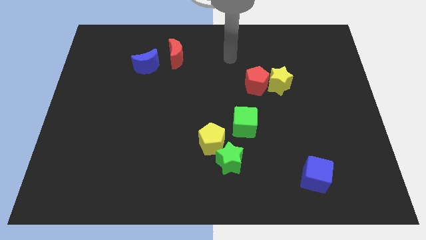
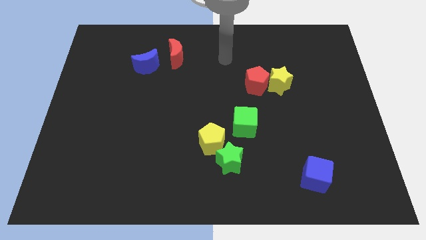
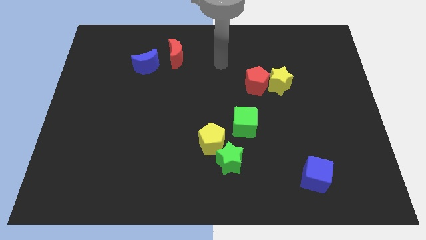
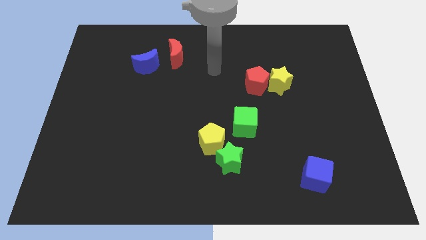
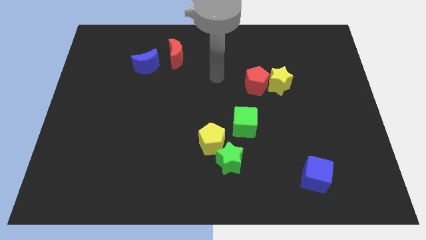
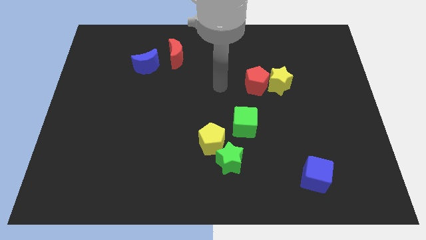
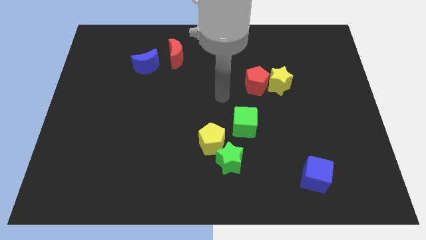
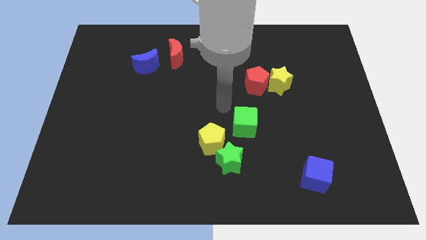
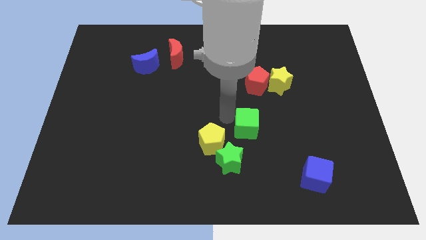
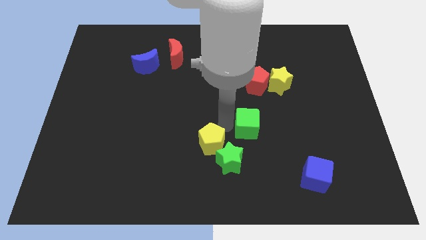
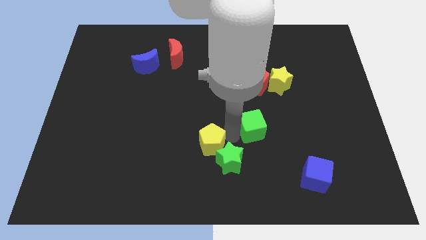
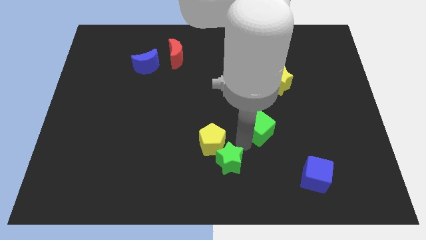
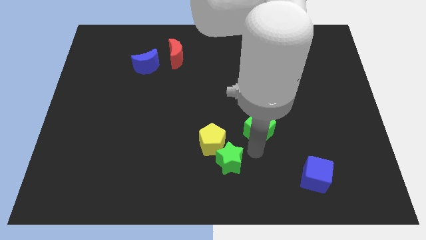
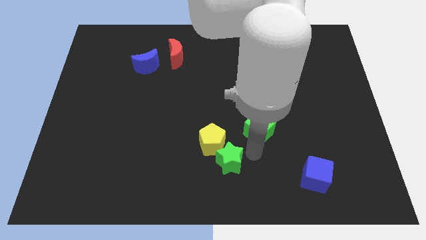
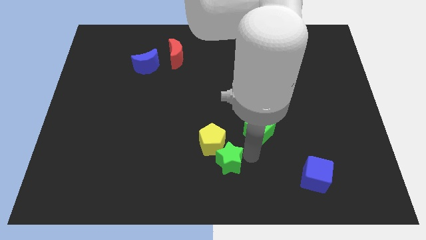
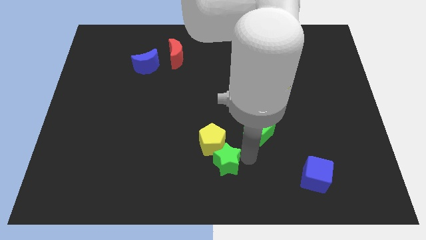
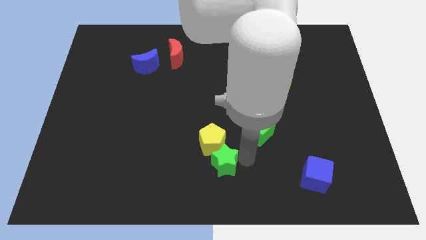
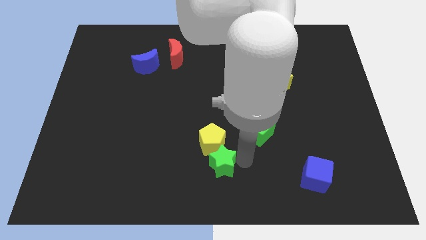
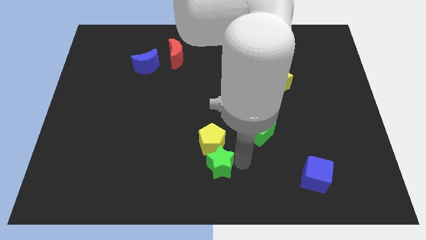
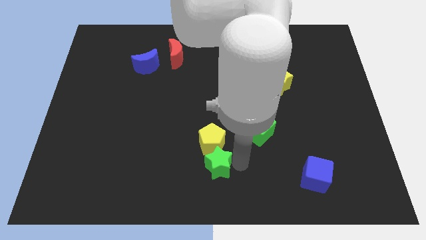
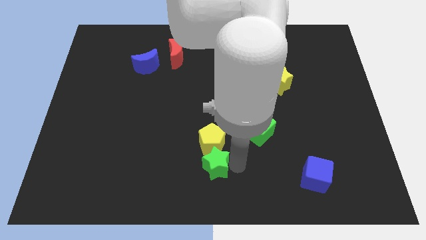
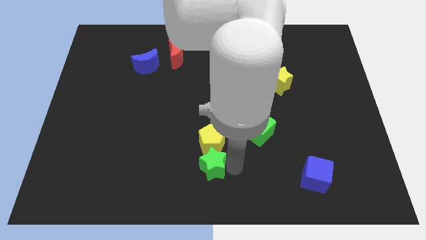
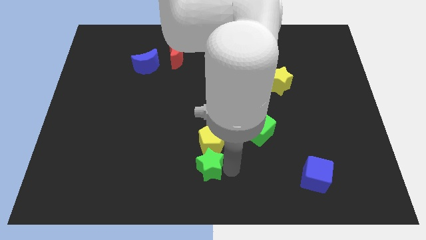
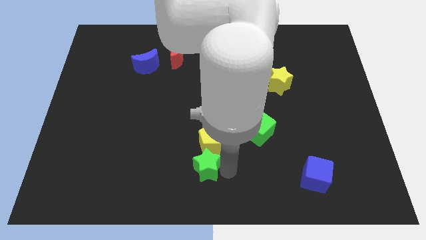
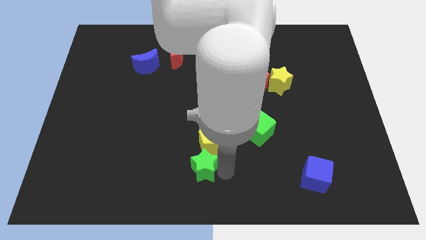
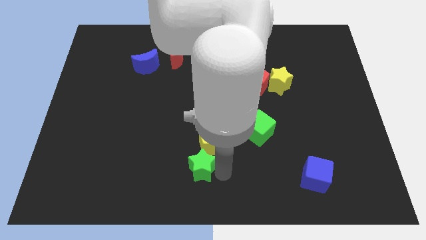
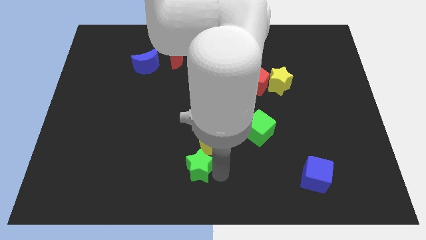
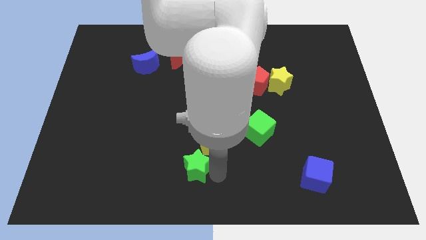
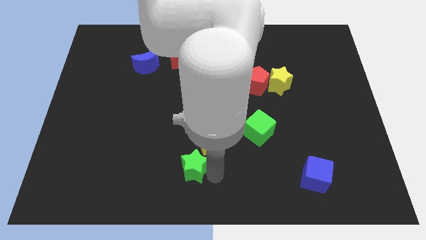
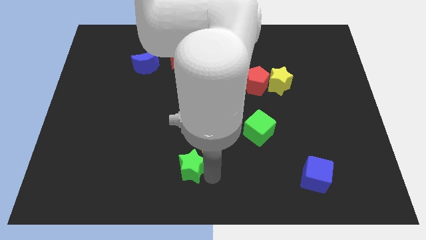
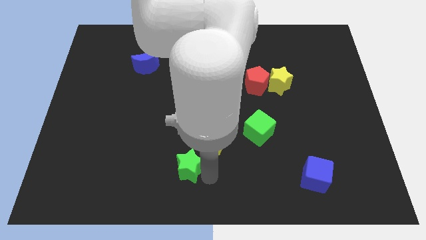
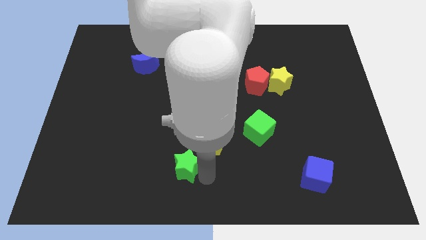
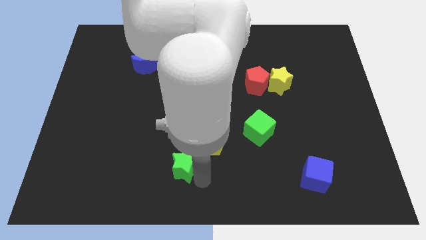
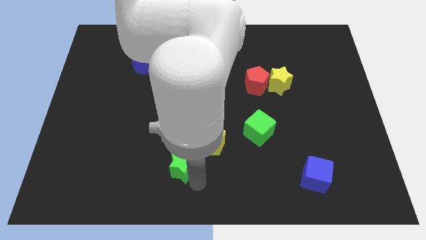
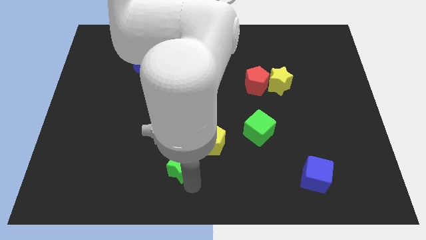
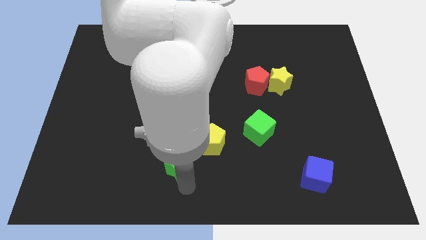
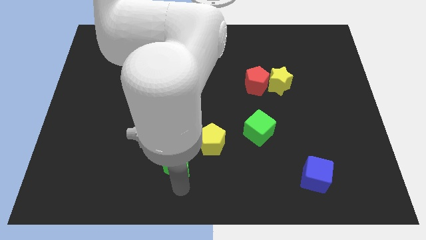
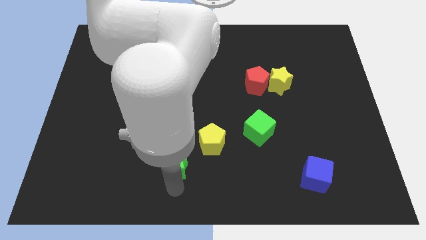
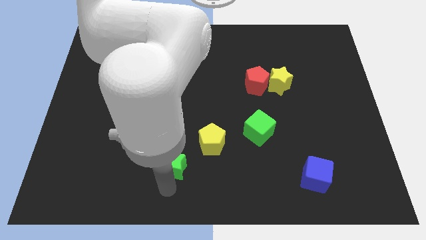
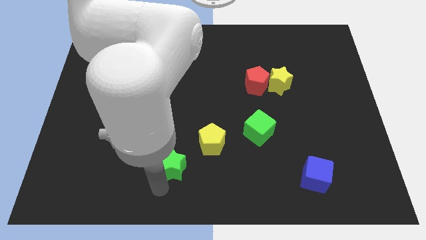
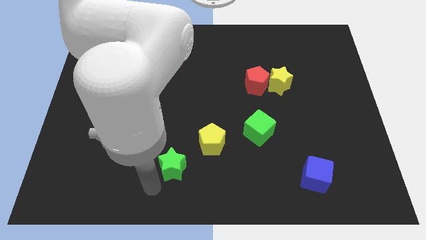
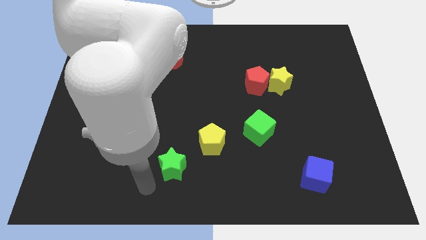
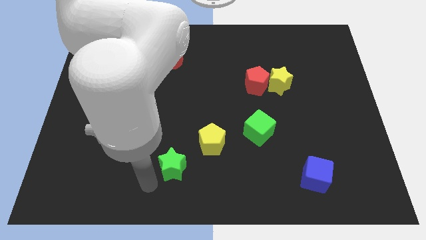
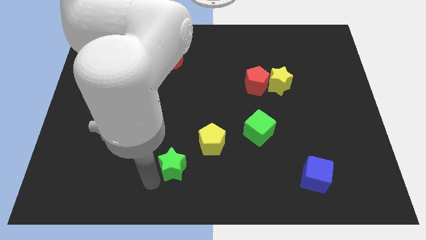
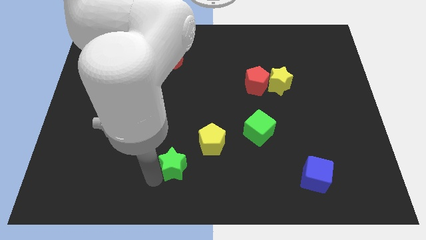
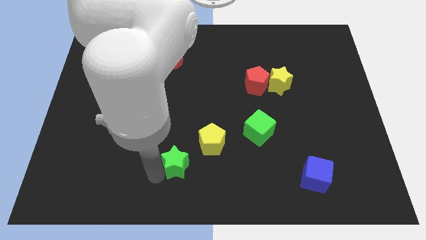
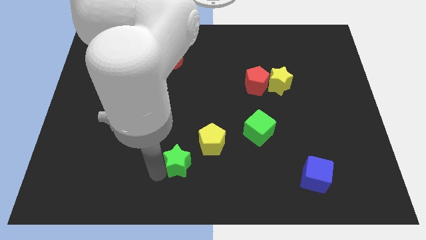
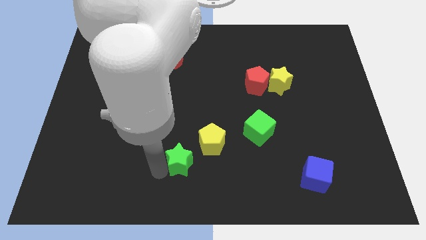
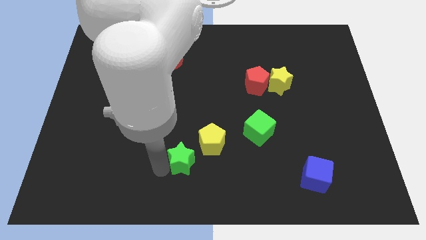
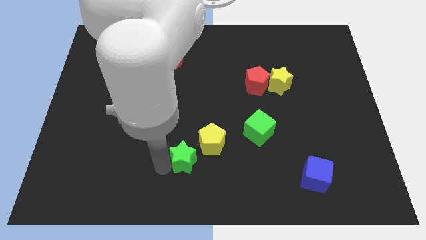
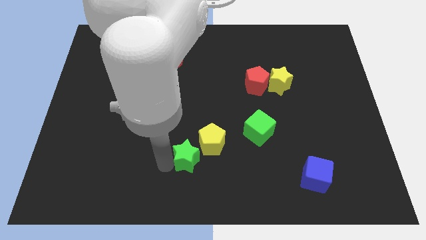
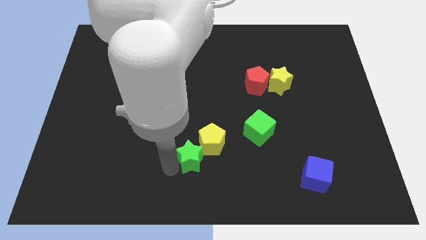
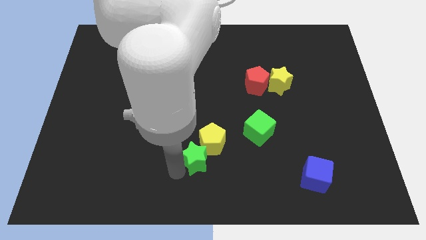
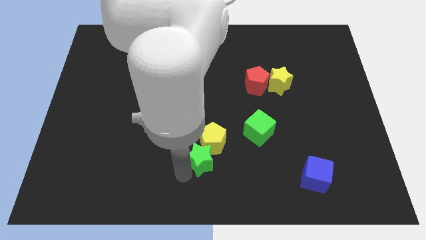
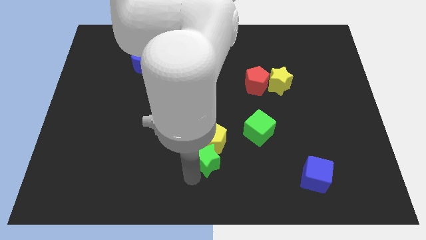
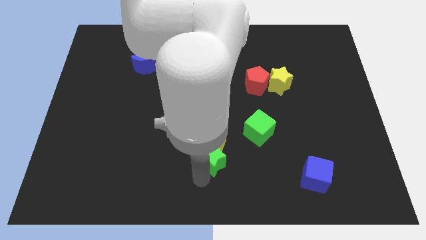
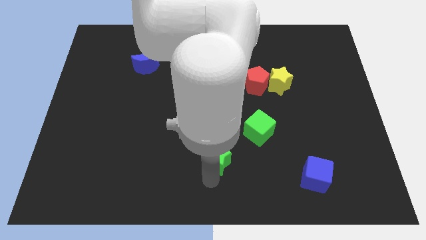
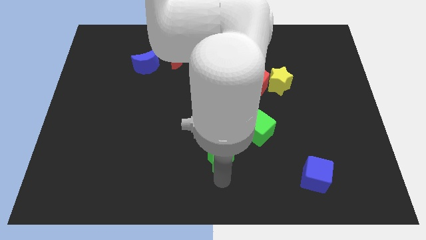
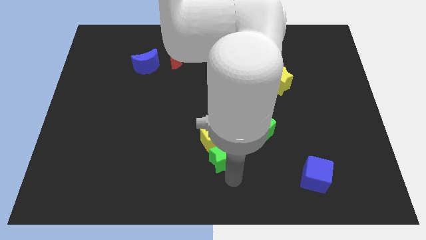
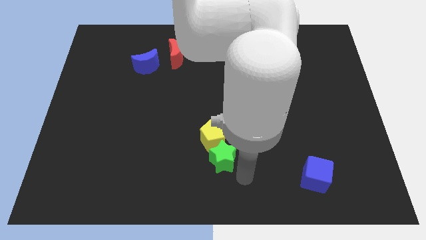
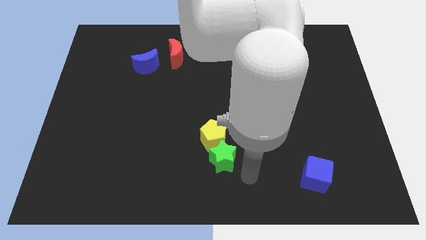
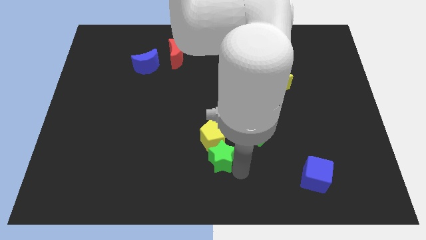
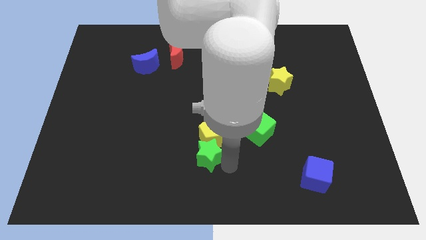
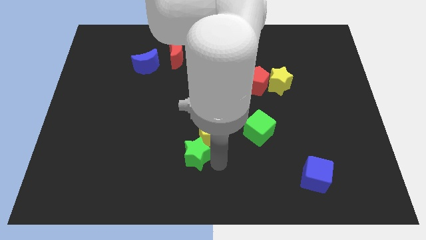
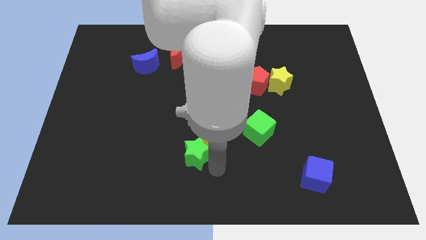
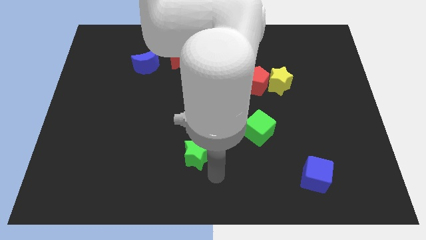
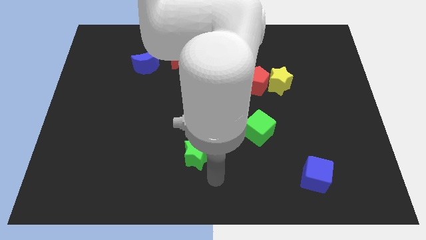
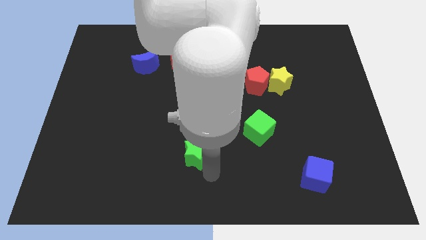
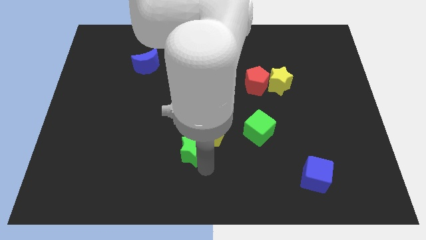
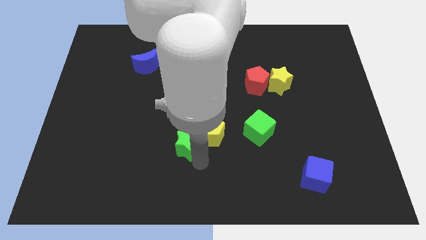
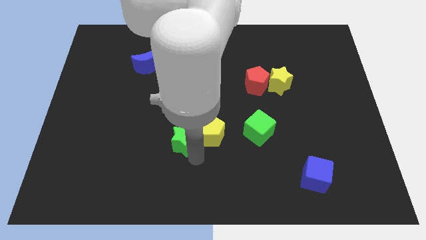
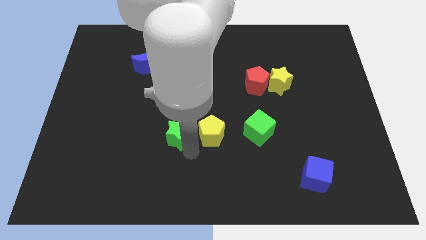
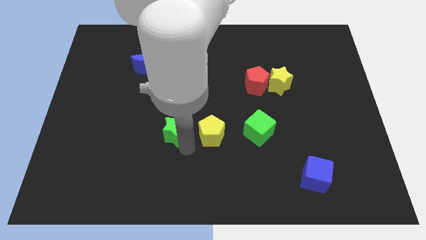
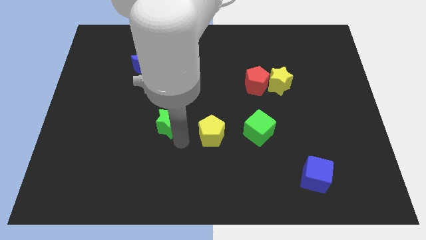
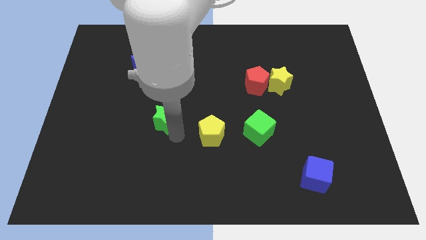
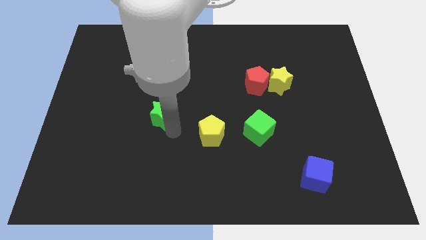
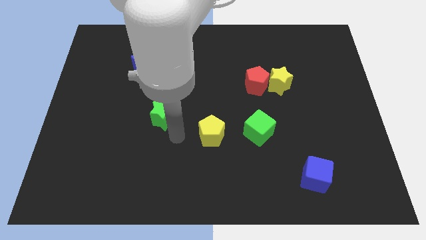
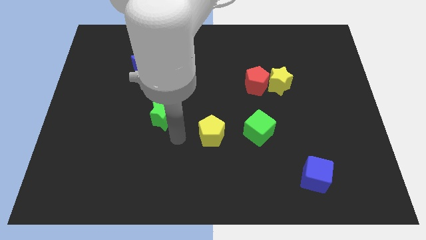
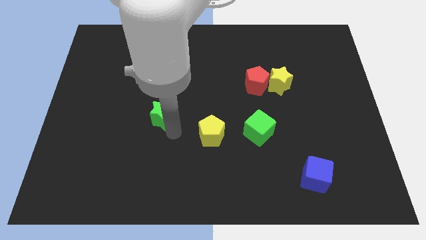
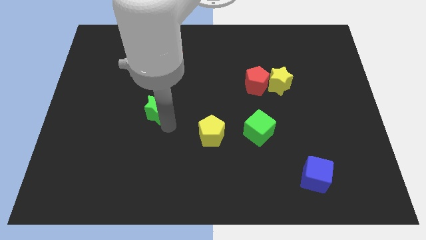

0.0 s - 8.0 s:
move the green star diagonally up and to the left
